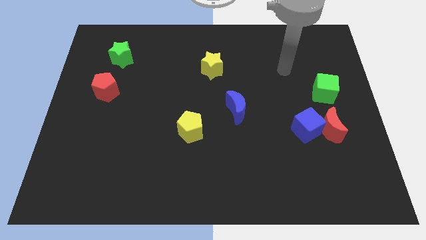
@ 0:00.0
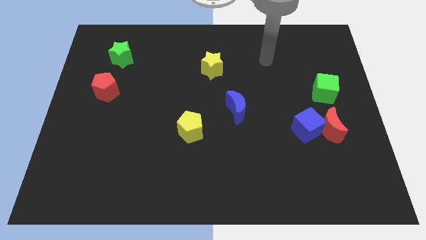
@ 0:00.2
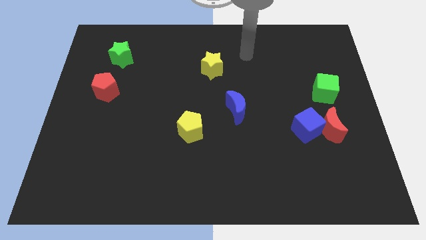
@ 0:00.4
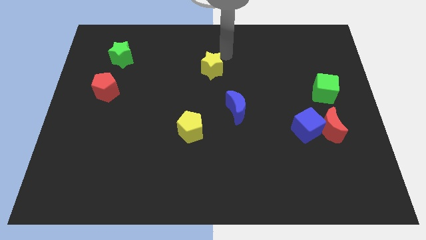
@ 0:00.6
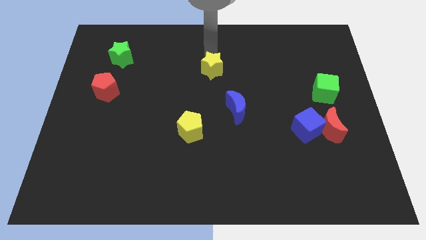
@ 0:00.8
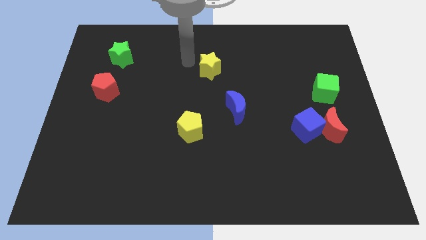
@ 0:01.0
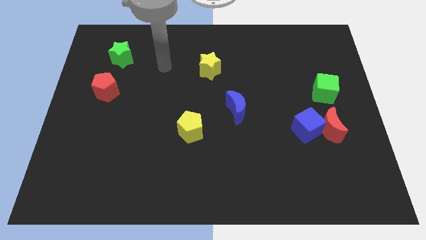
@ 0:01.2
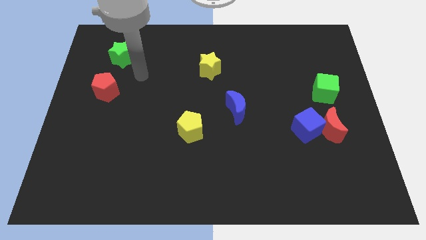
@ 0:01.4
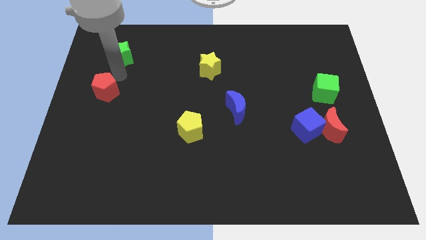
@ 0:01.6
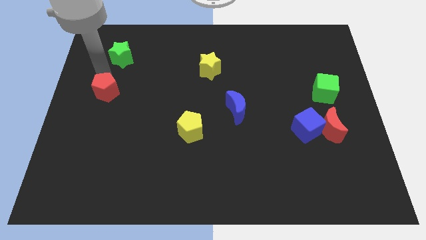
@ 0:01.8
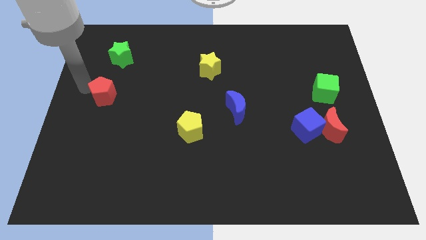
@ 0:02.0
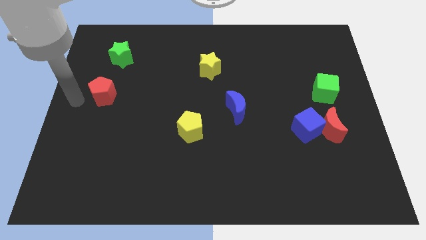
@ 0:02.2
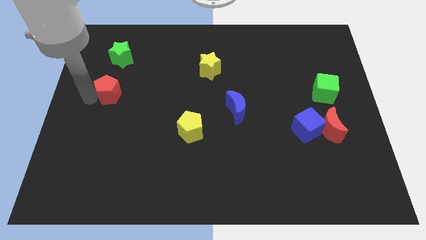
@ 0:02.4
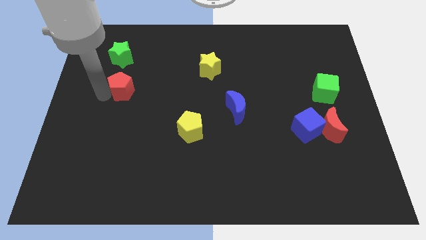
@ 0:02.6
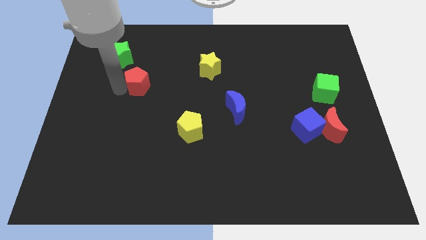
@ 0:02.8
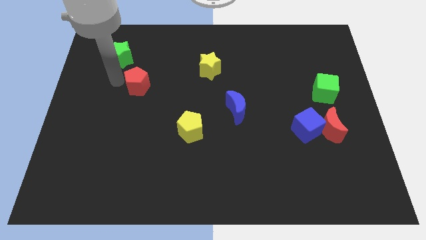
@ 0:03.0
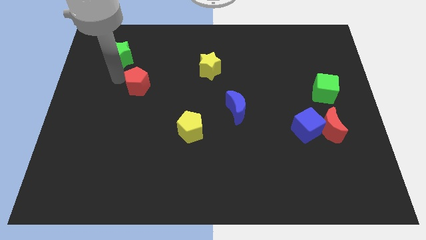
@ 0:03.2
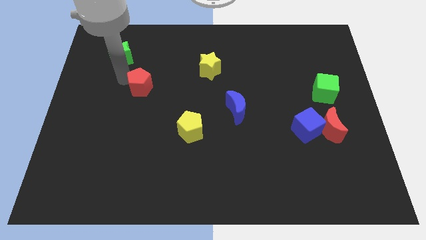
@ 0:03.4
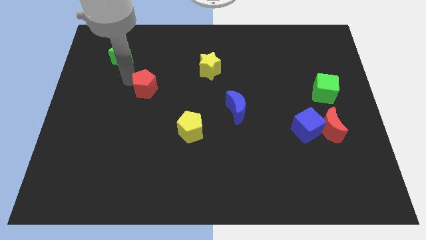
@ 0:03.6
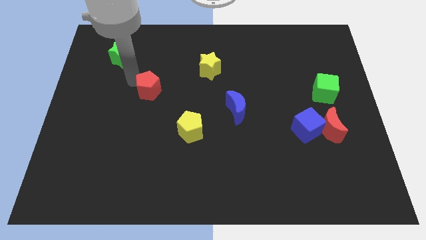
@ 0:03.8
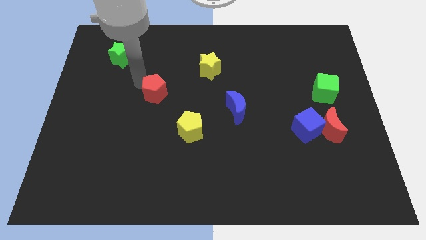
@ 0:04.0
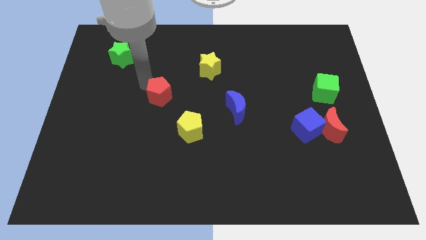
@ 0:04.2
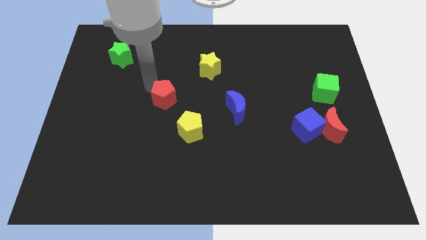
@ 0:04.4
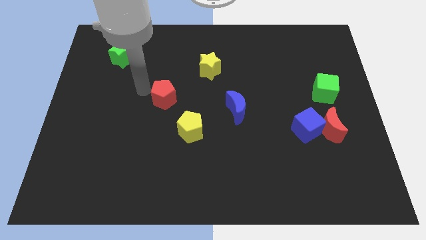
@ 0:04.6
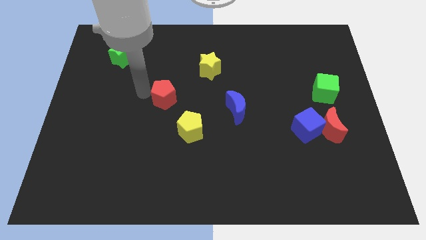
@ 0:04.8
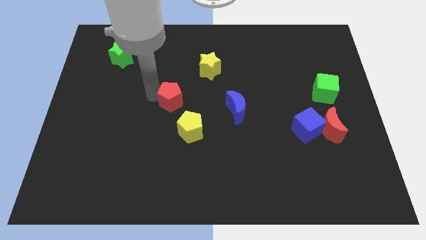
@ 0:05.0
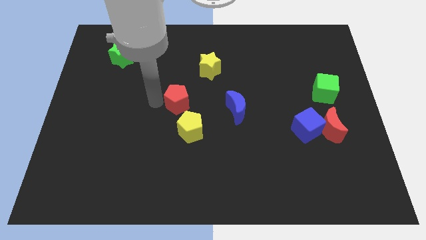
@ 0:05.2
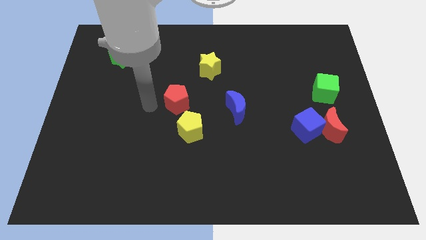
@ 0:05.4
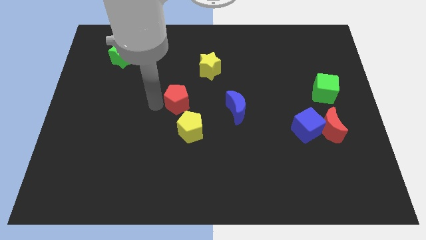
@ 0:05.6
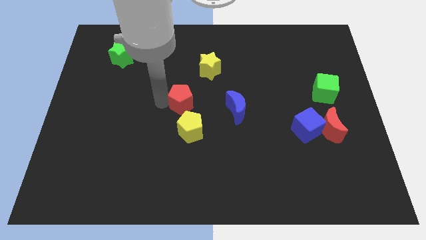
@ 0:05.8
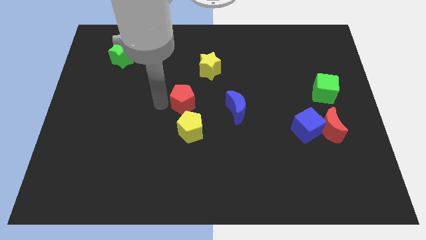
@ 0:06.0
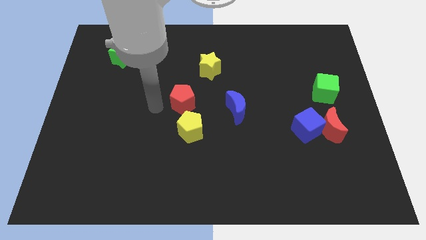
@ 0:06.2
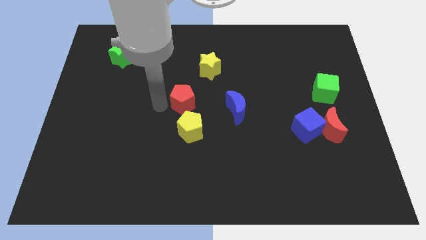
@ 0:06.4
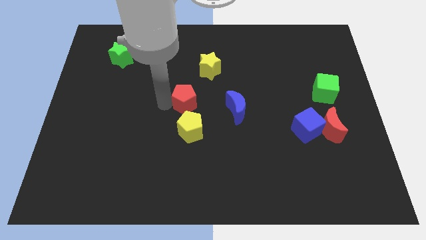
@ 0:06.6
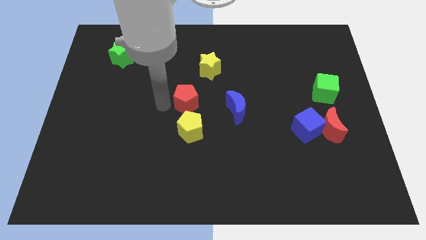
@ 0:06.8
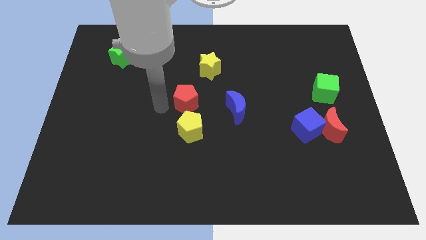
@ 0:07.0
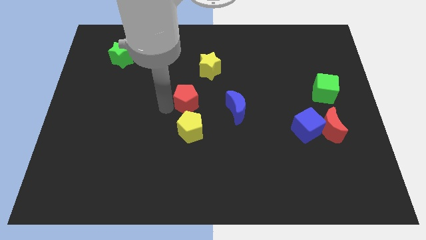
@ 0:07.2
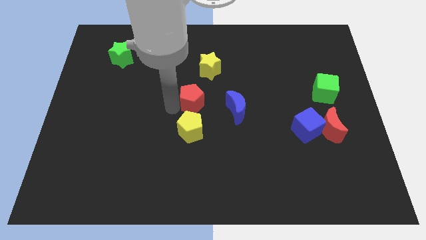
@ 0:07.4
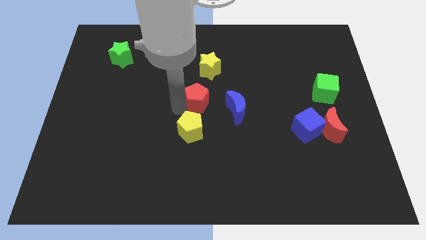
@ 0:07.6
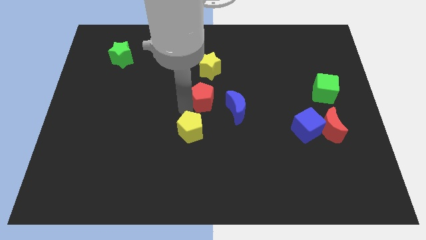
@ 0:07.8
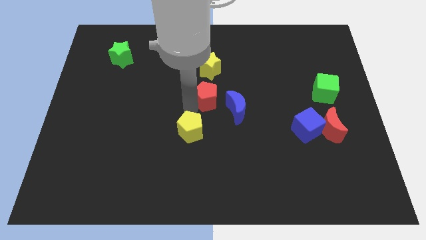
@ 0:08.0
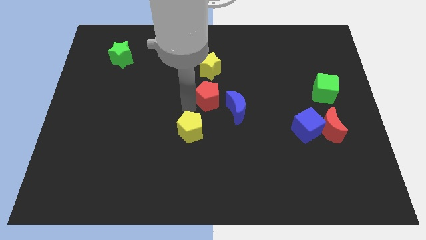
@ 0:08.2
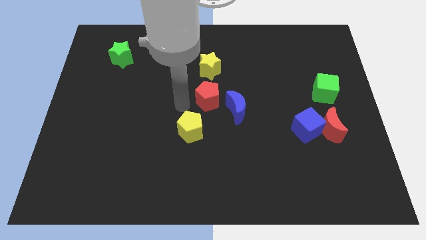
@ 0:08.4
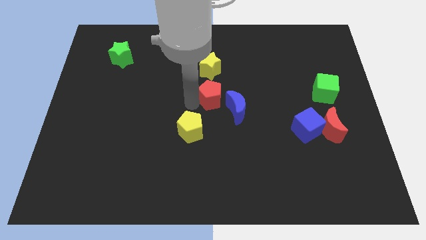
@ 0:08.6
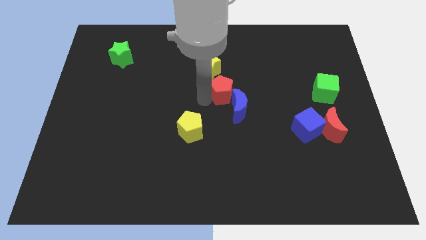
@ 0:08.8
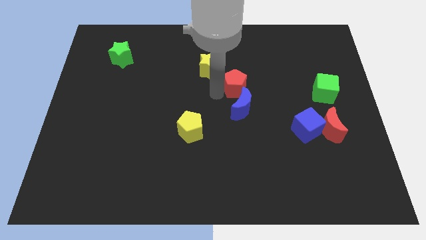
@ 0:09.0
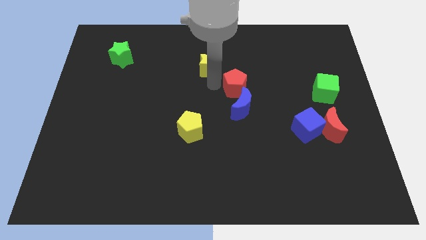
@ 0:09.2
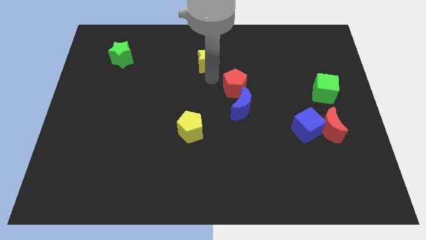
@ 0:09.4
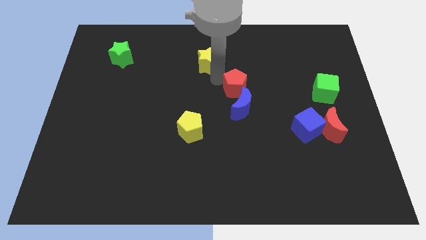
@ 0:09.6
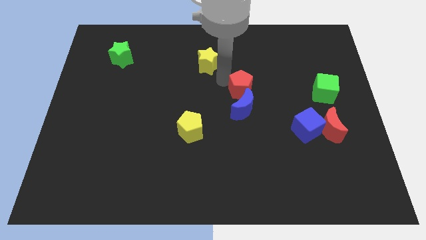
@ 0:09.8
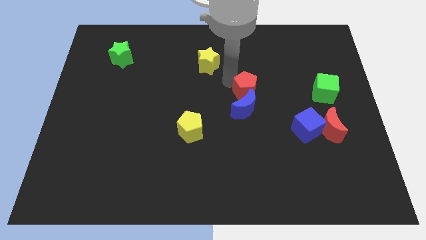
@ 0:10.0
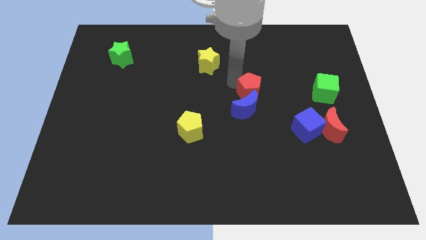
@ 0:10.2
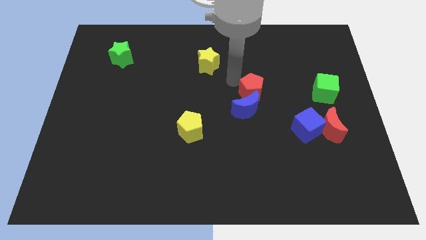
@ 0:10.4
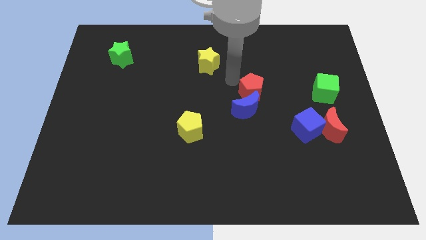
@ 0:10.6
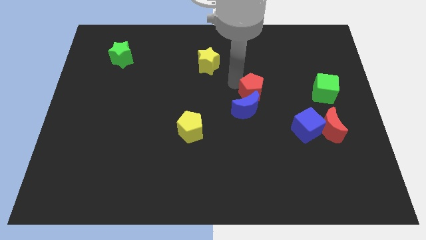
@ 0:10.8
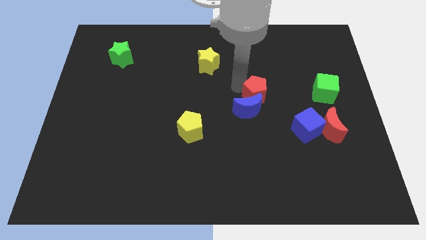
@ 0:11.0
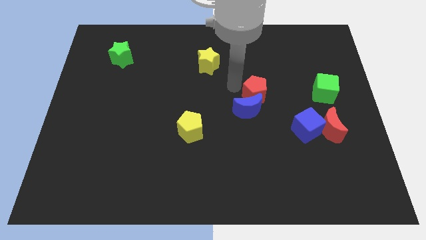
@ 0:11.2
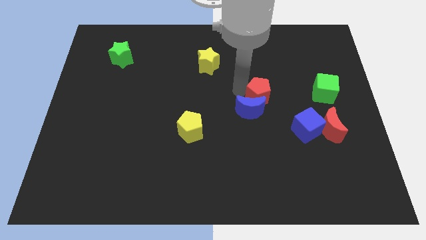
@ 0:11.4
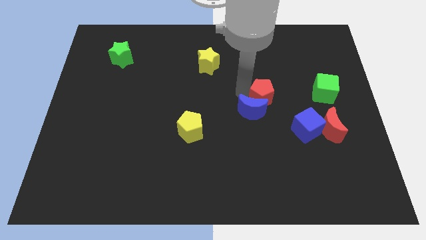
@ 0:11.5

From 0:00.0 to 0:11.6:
push the red pentagon to the right side of the blue moon

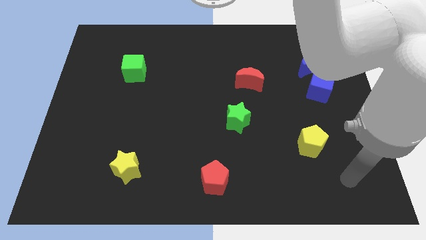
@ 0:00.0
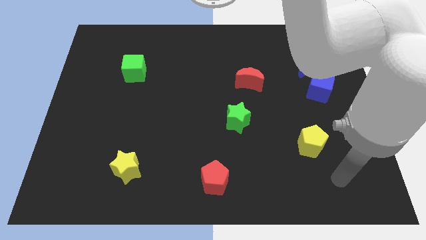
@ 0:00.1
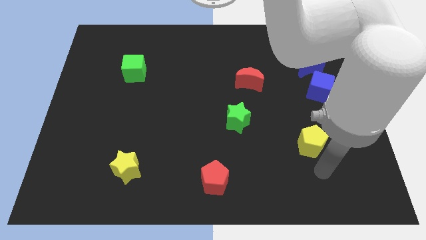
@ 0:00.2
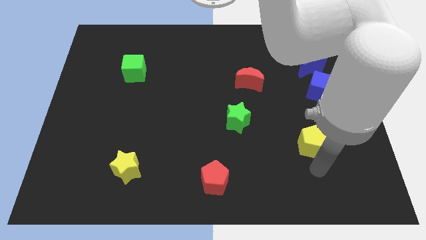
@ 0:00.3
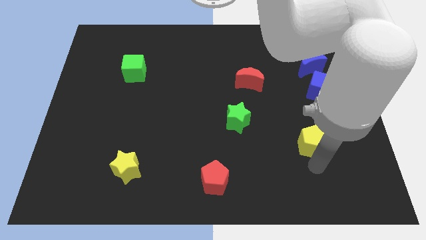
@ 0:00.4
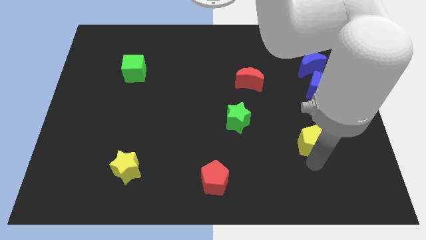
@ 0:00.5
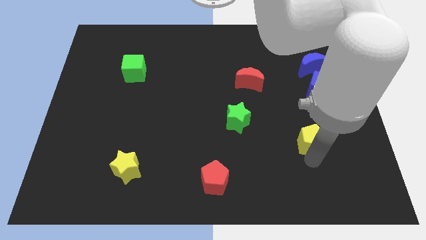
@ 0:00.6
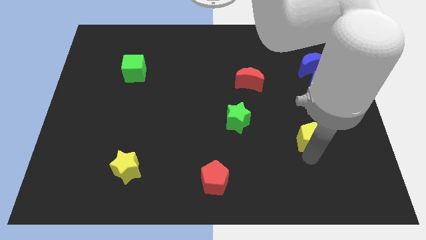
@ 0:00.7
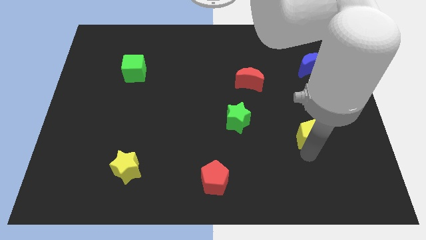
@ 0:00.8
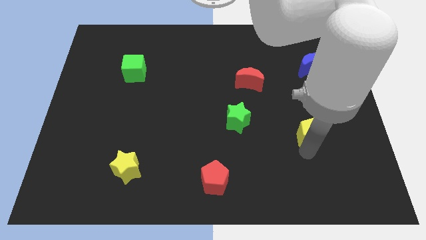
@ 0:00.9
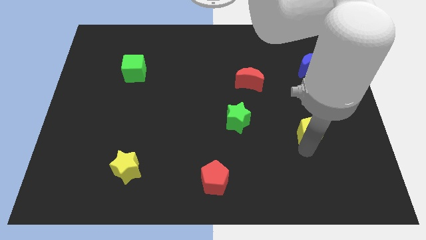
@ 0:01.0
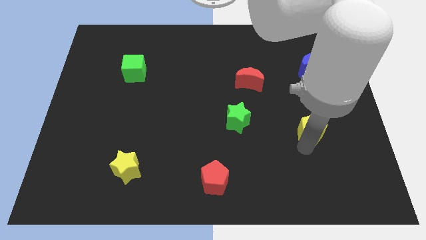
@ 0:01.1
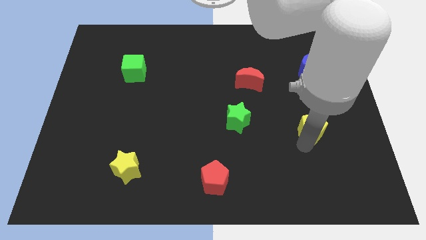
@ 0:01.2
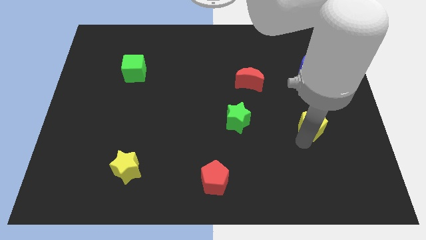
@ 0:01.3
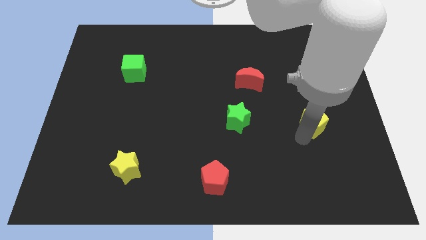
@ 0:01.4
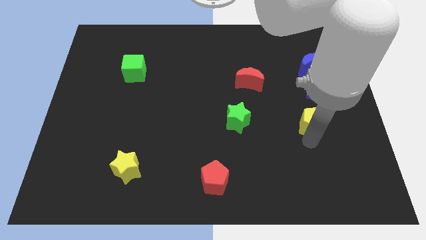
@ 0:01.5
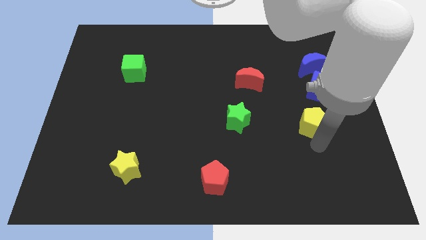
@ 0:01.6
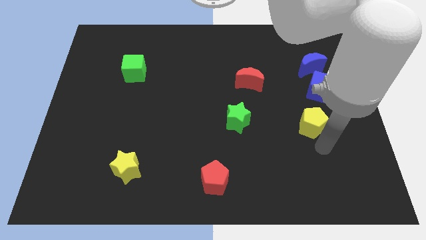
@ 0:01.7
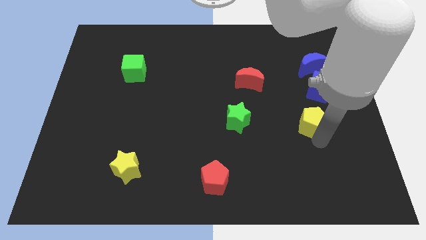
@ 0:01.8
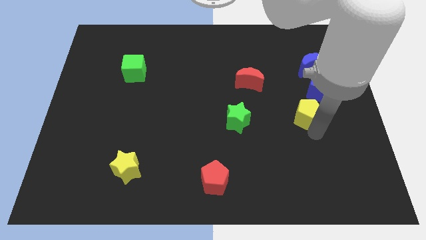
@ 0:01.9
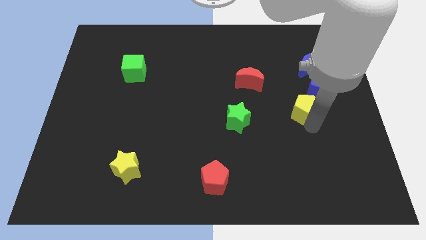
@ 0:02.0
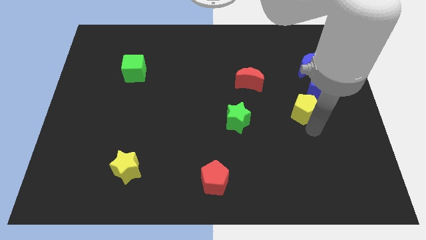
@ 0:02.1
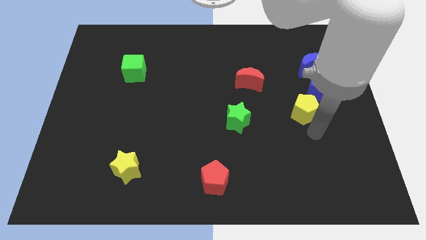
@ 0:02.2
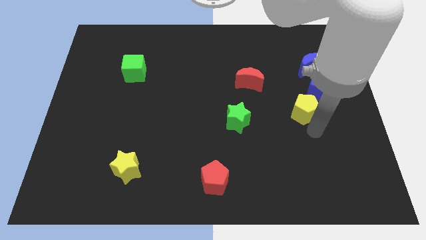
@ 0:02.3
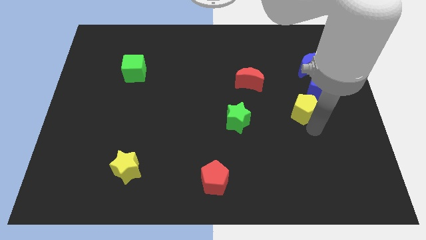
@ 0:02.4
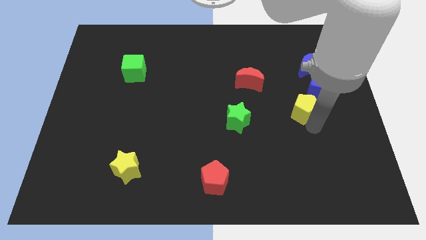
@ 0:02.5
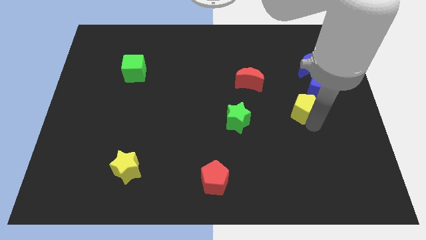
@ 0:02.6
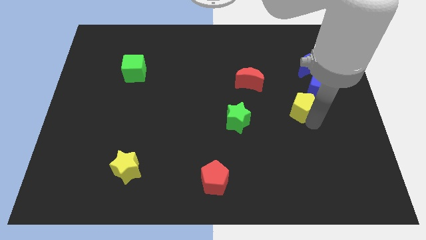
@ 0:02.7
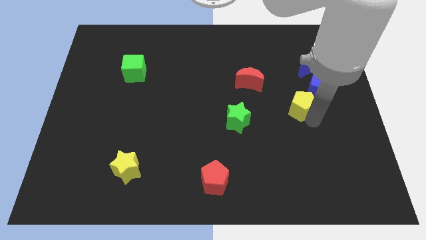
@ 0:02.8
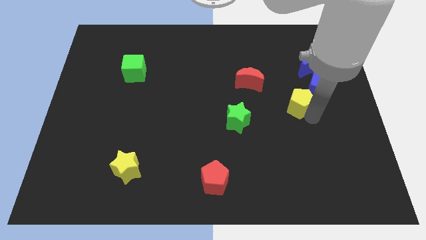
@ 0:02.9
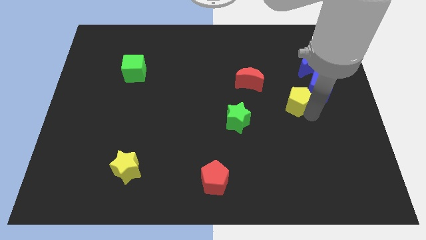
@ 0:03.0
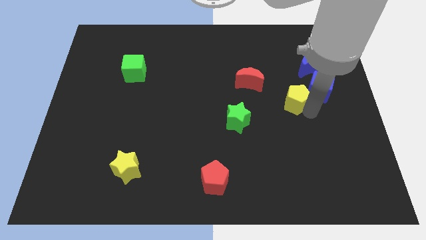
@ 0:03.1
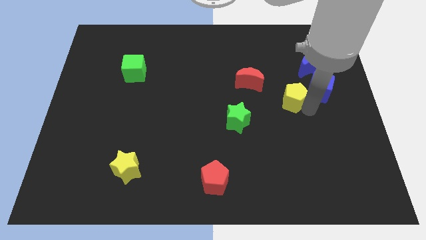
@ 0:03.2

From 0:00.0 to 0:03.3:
slide the yellow pentagon to the bottom left side of the blue moon
